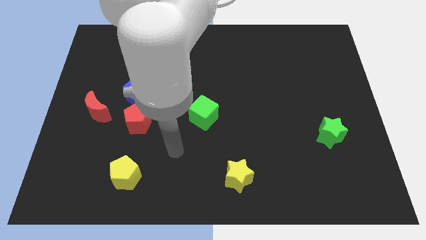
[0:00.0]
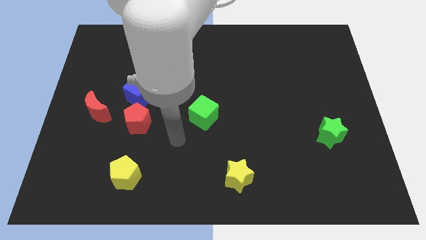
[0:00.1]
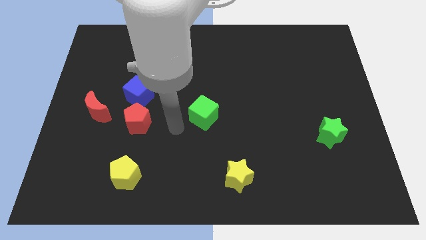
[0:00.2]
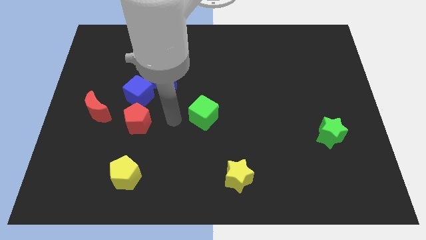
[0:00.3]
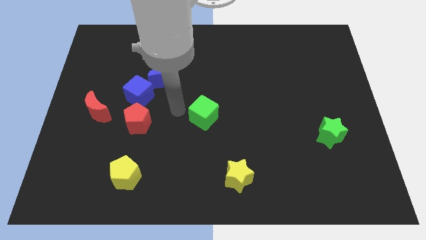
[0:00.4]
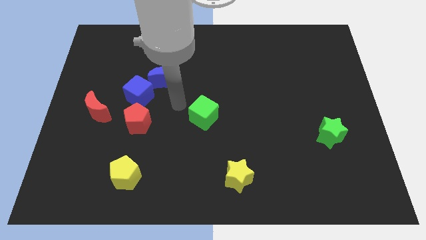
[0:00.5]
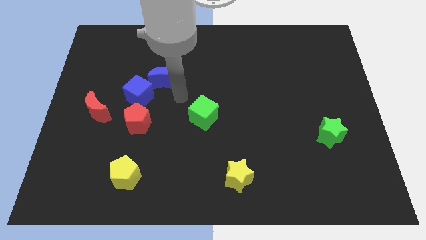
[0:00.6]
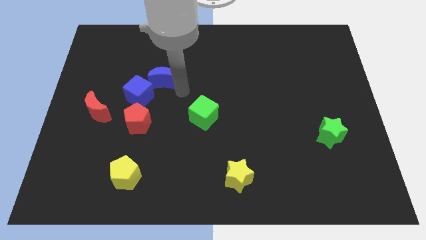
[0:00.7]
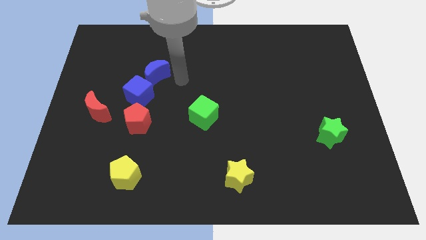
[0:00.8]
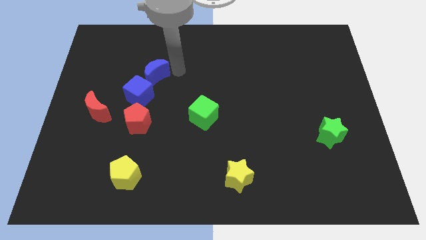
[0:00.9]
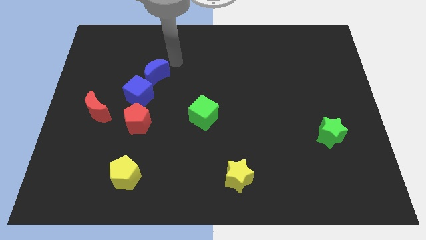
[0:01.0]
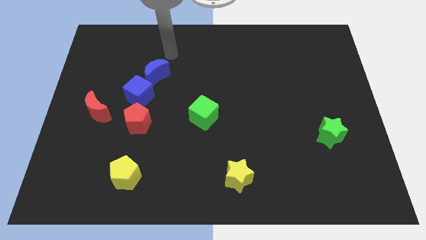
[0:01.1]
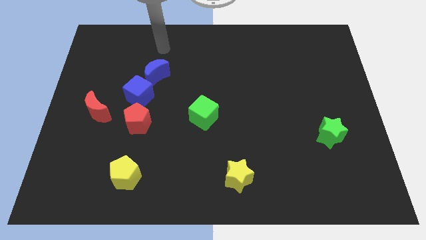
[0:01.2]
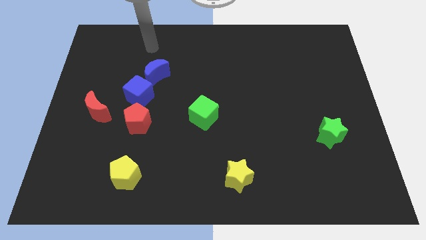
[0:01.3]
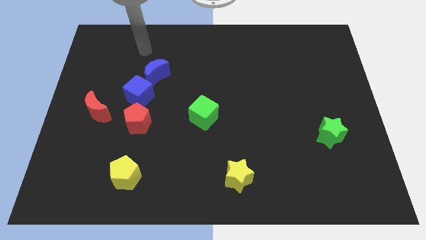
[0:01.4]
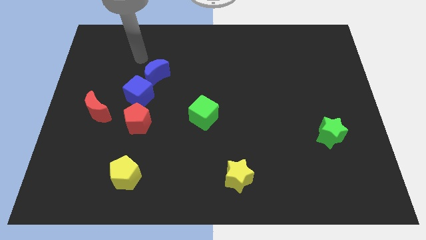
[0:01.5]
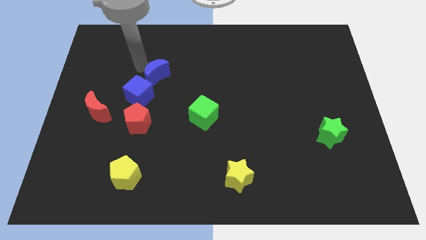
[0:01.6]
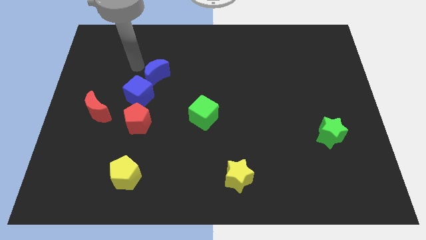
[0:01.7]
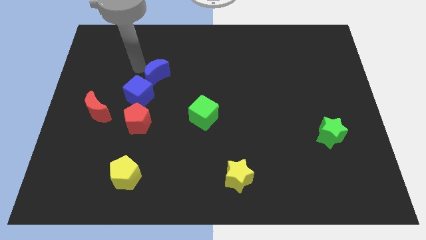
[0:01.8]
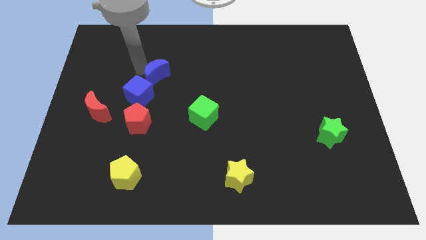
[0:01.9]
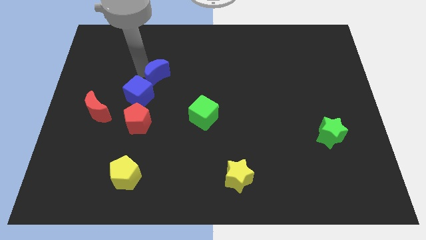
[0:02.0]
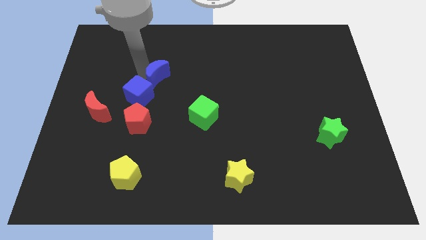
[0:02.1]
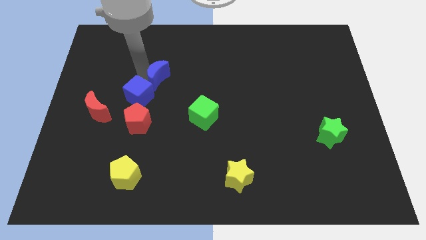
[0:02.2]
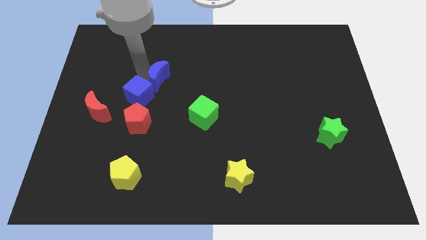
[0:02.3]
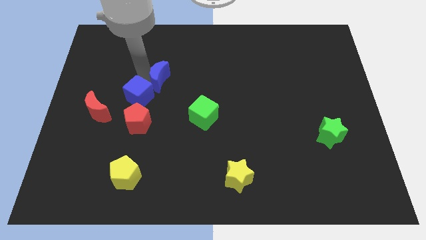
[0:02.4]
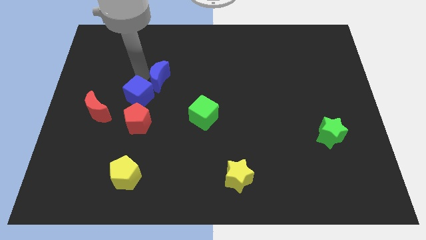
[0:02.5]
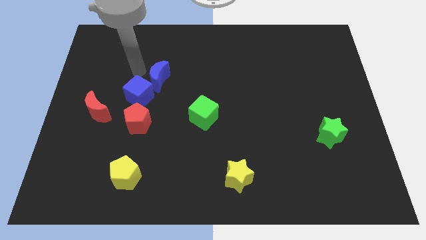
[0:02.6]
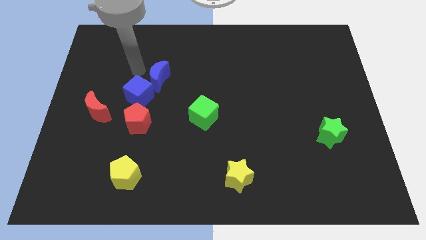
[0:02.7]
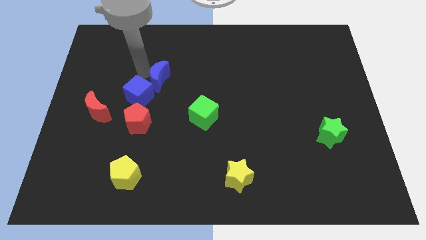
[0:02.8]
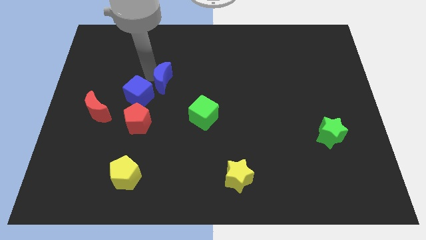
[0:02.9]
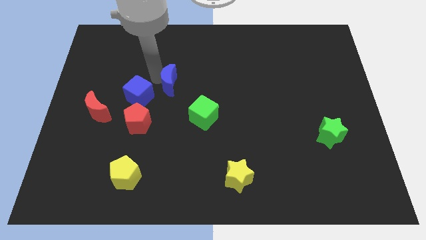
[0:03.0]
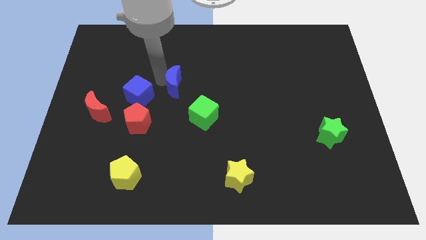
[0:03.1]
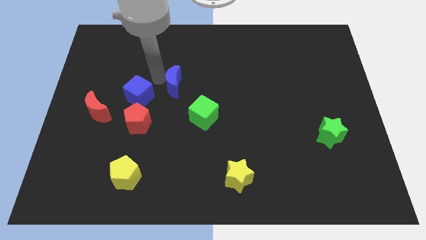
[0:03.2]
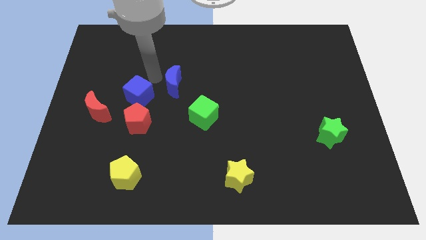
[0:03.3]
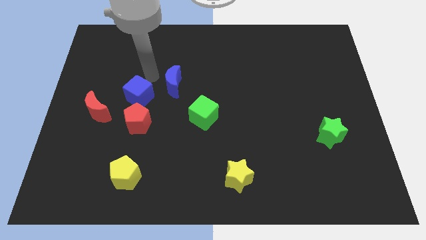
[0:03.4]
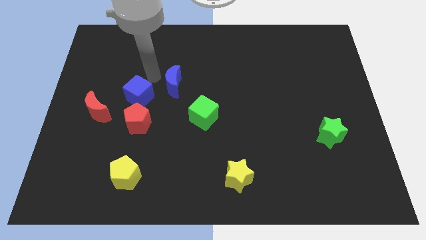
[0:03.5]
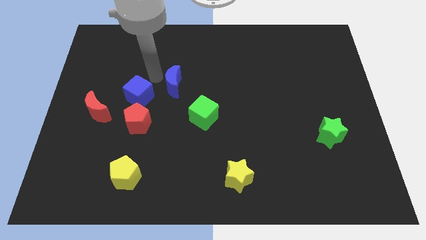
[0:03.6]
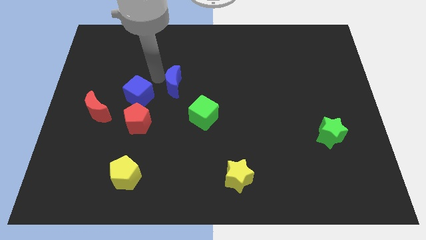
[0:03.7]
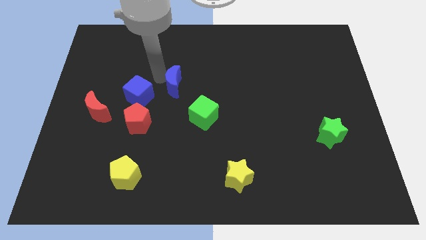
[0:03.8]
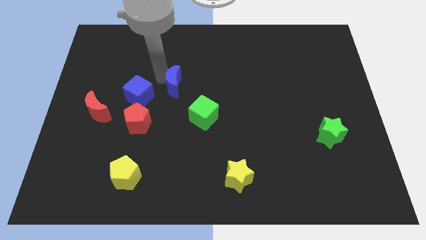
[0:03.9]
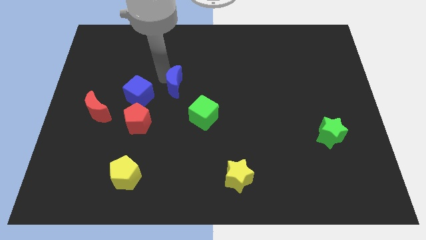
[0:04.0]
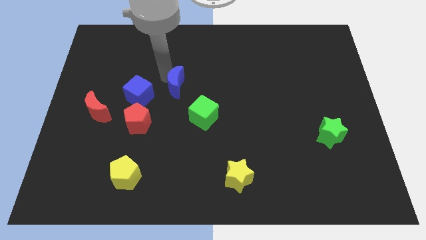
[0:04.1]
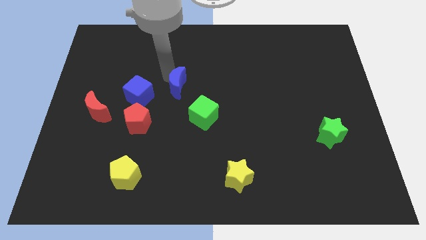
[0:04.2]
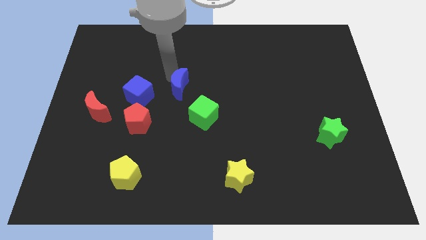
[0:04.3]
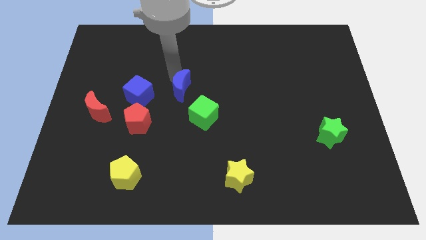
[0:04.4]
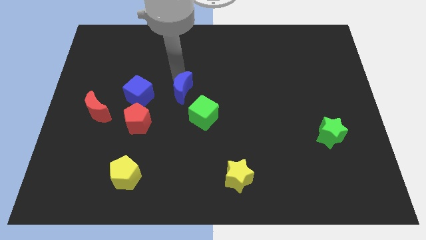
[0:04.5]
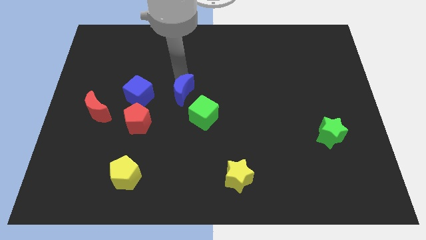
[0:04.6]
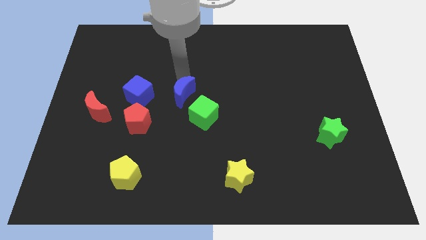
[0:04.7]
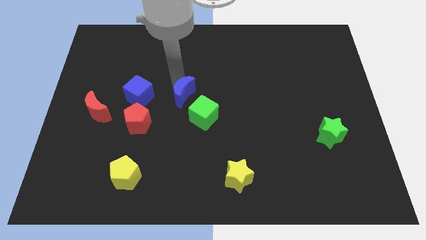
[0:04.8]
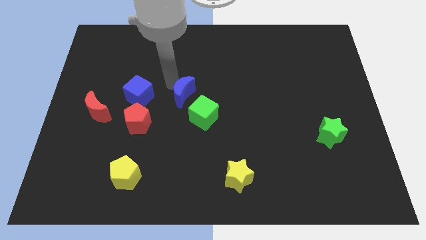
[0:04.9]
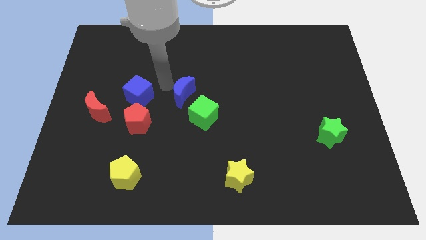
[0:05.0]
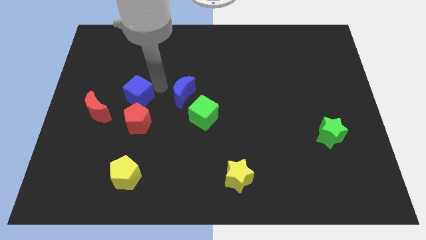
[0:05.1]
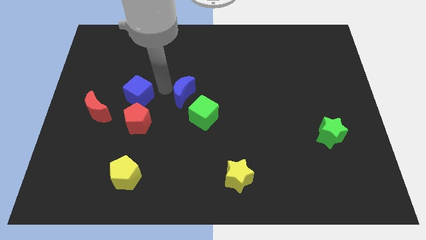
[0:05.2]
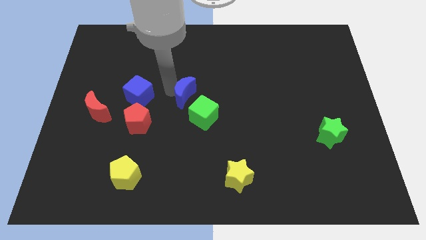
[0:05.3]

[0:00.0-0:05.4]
slightly move the blue moon down and then right

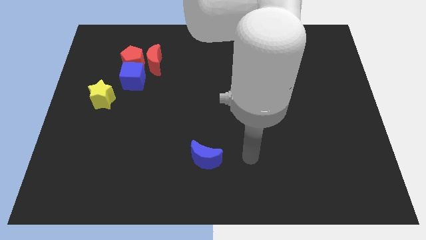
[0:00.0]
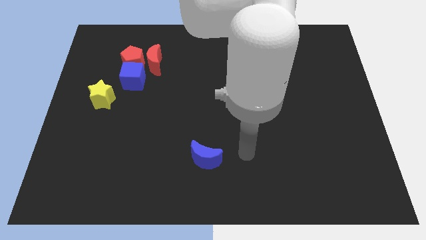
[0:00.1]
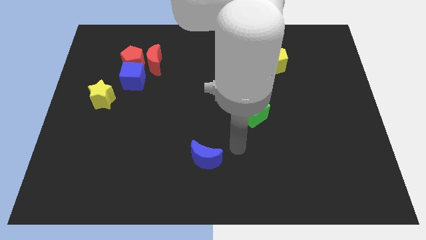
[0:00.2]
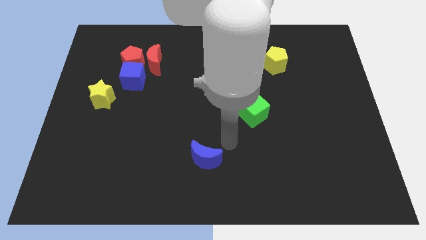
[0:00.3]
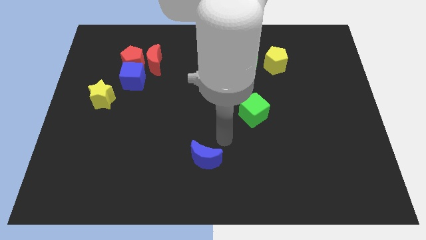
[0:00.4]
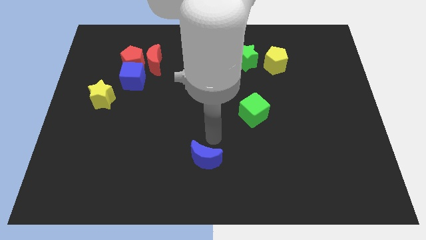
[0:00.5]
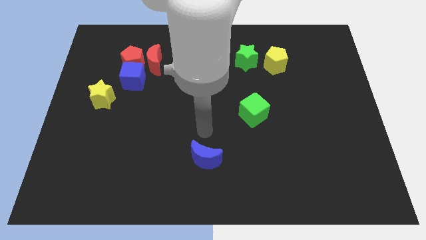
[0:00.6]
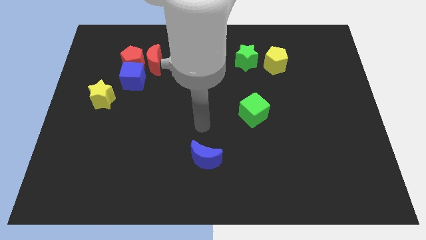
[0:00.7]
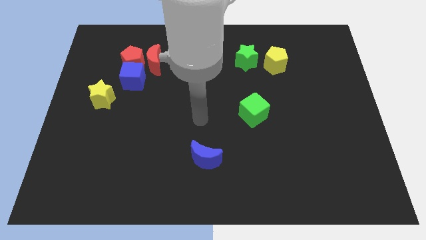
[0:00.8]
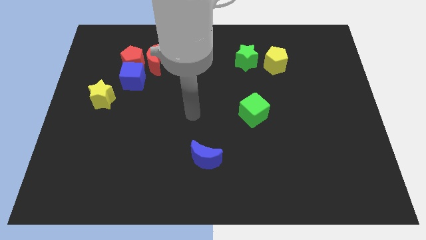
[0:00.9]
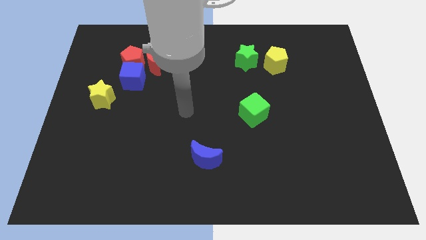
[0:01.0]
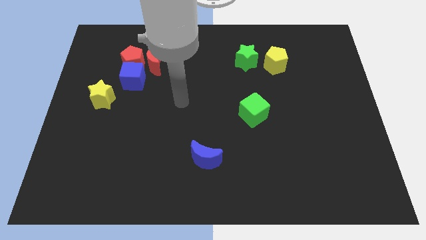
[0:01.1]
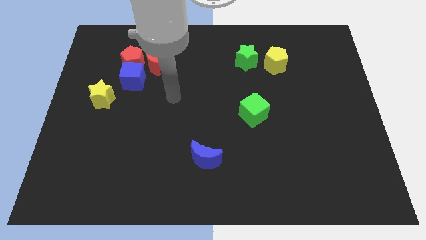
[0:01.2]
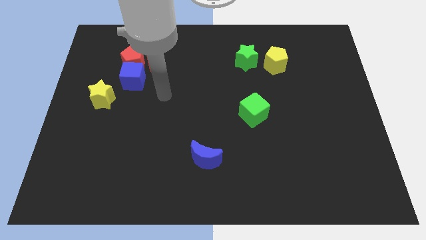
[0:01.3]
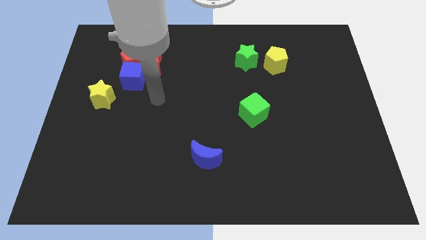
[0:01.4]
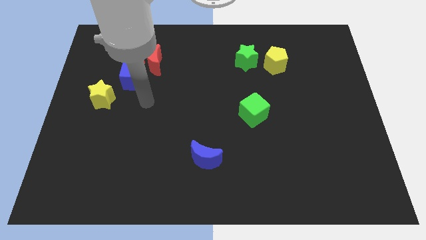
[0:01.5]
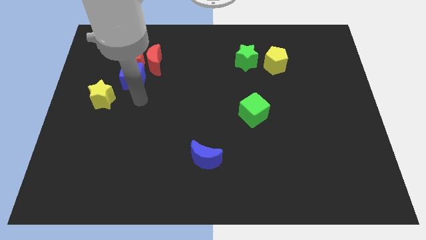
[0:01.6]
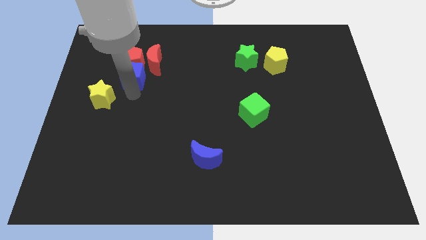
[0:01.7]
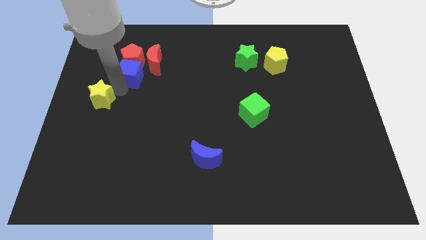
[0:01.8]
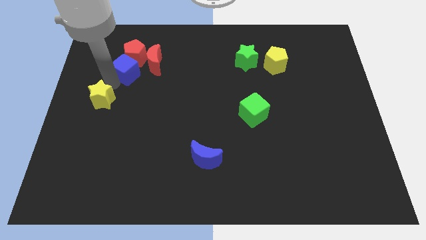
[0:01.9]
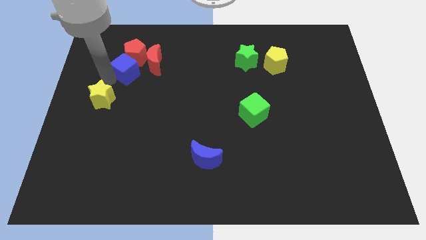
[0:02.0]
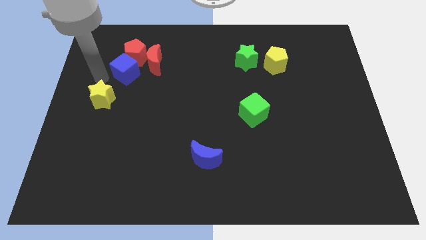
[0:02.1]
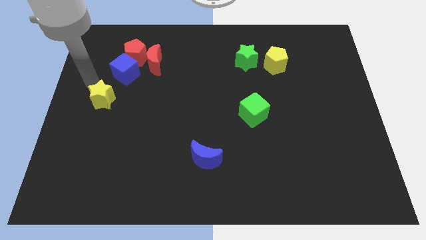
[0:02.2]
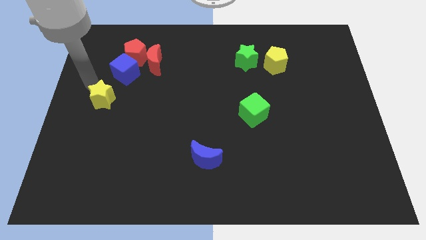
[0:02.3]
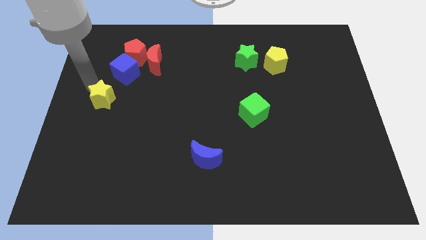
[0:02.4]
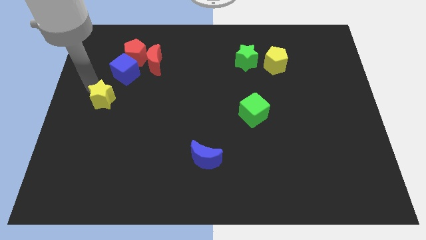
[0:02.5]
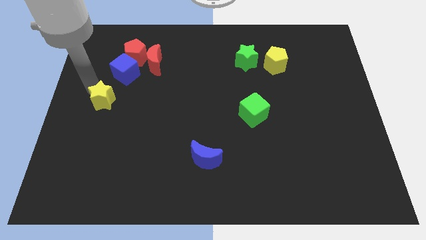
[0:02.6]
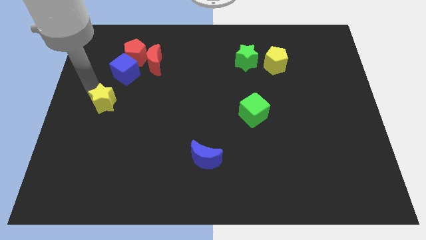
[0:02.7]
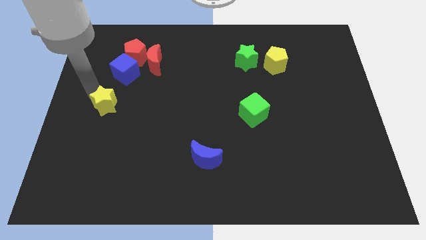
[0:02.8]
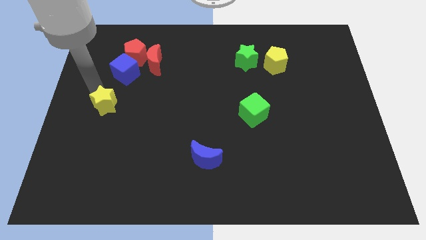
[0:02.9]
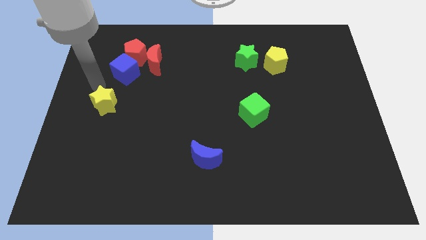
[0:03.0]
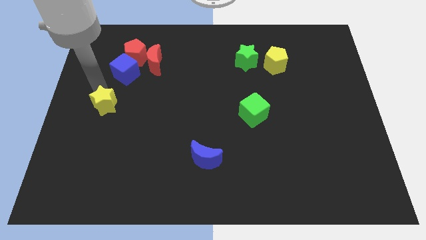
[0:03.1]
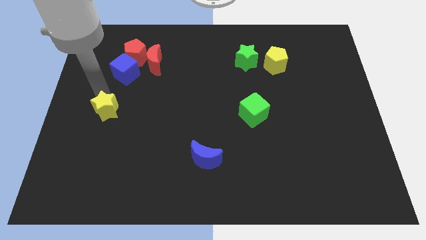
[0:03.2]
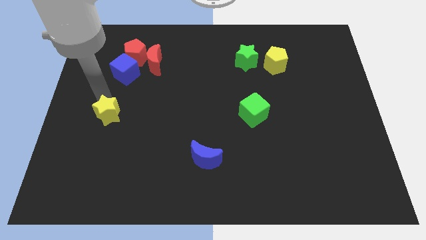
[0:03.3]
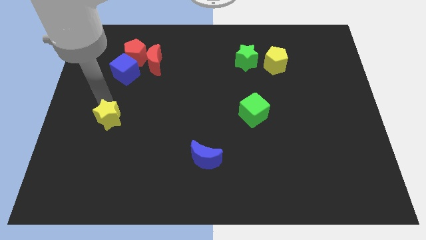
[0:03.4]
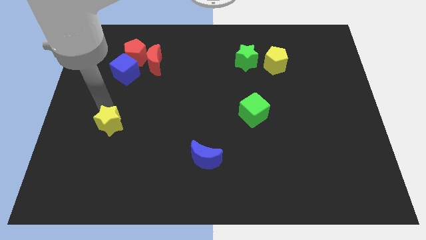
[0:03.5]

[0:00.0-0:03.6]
push the yellow star somewhat down and to the right
